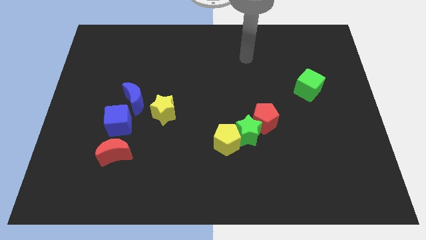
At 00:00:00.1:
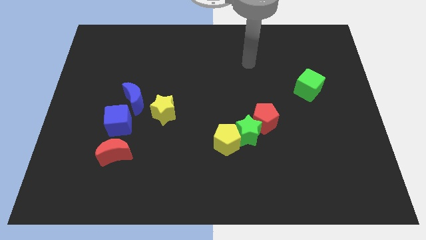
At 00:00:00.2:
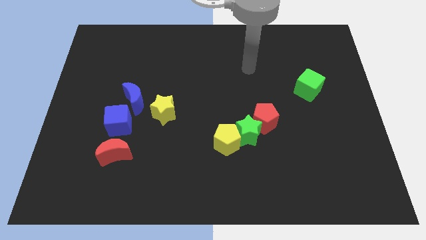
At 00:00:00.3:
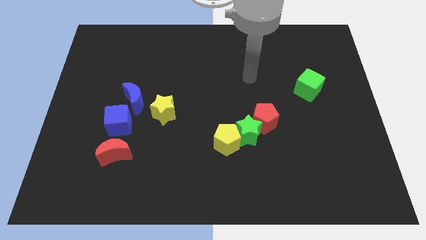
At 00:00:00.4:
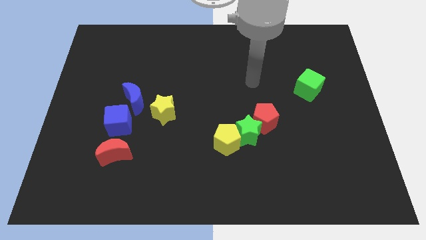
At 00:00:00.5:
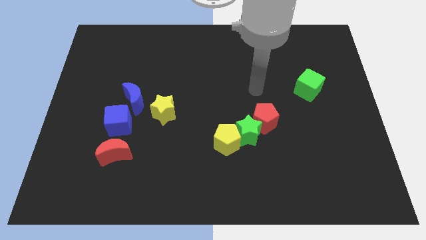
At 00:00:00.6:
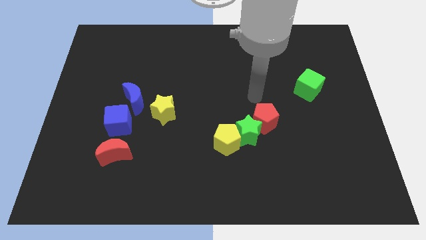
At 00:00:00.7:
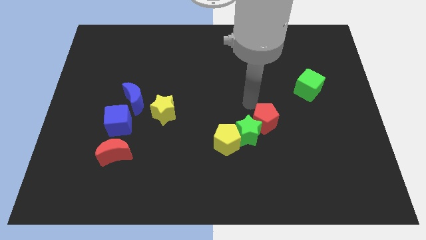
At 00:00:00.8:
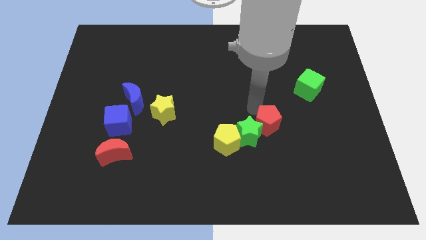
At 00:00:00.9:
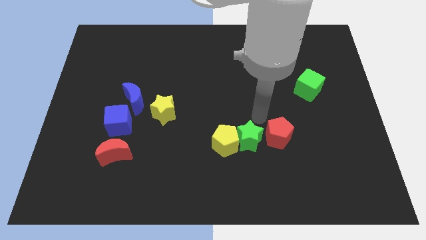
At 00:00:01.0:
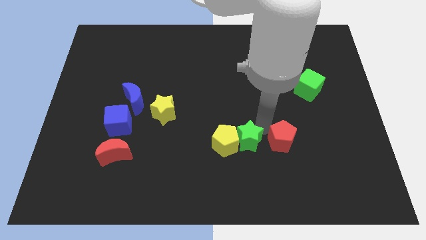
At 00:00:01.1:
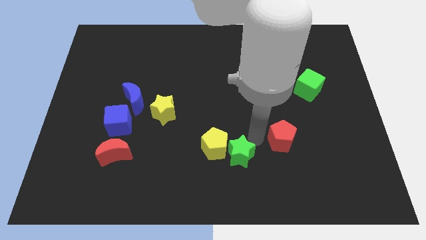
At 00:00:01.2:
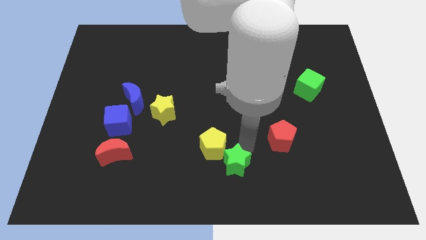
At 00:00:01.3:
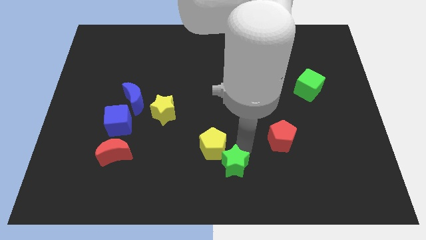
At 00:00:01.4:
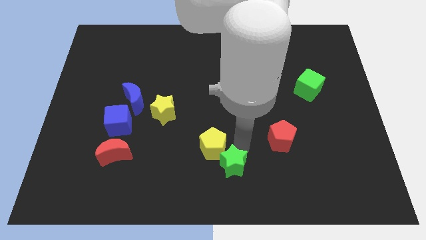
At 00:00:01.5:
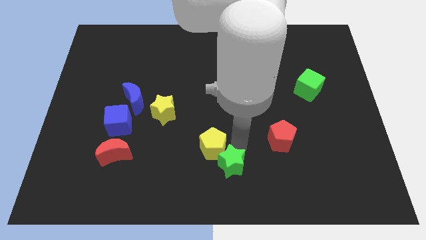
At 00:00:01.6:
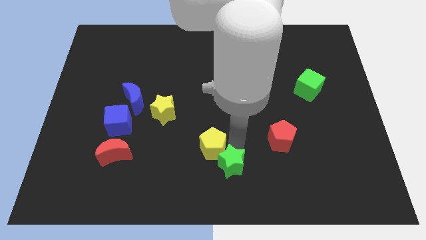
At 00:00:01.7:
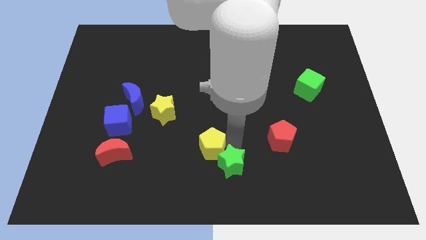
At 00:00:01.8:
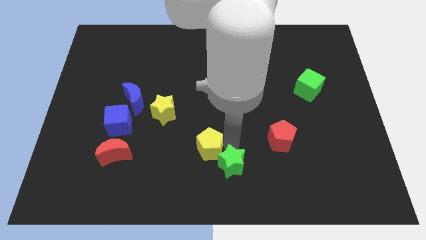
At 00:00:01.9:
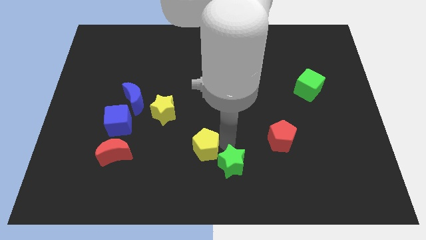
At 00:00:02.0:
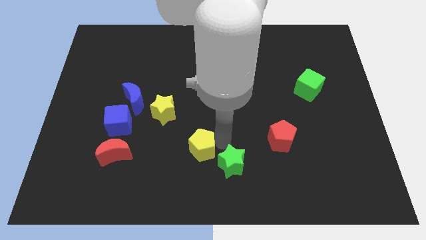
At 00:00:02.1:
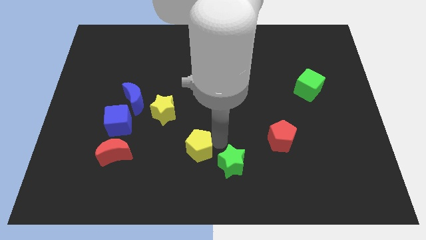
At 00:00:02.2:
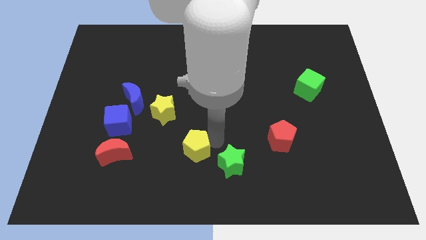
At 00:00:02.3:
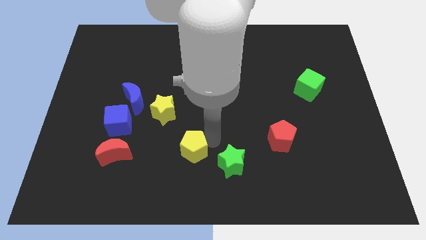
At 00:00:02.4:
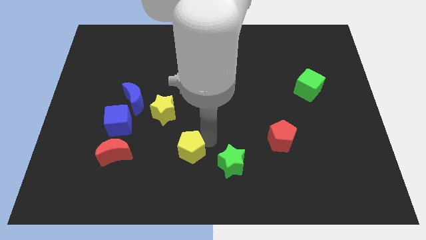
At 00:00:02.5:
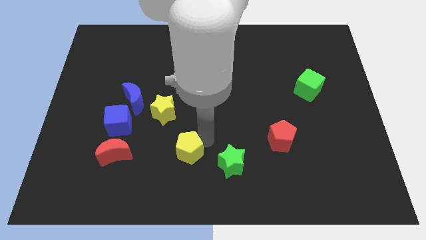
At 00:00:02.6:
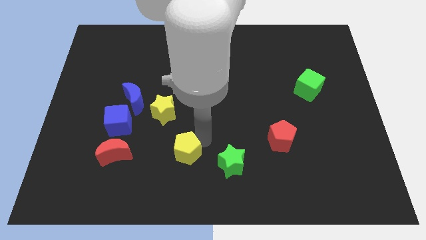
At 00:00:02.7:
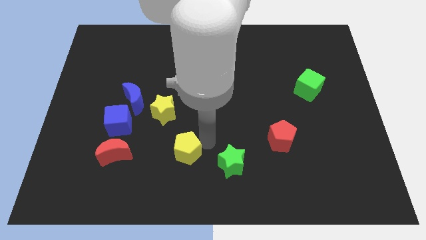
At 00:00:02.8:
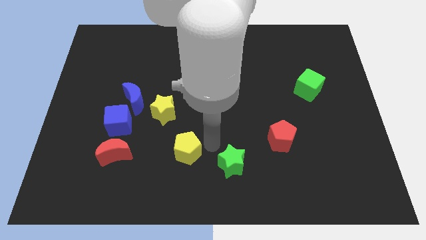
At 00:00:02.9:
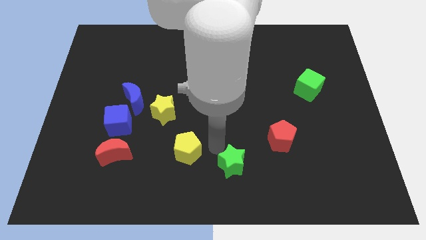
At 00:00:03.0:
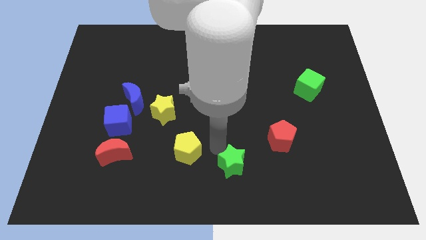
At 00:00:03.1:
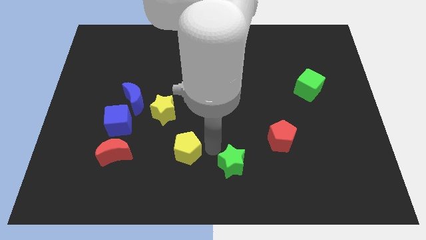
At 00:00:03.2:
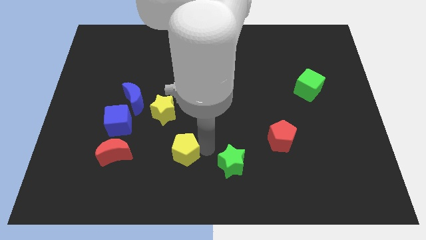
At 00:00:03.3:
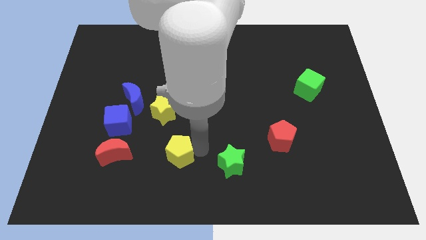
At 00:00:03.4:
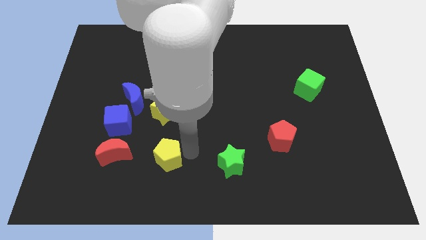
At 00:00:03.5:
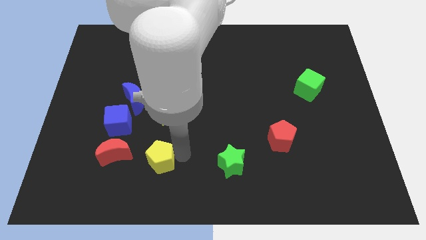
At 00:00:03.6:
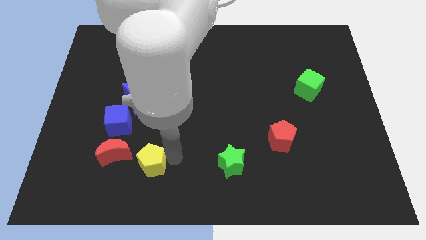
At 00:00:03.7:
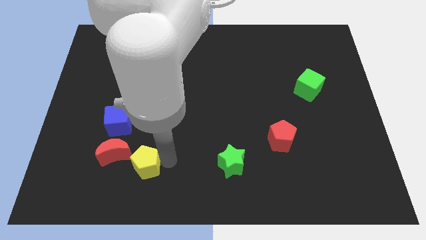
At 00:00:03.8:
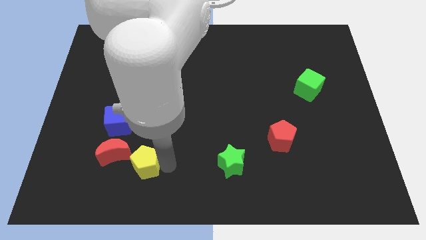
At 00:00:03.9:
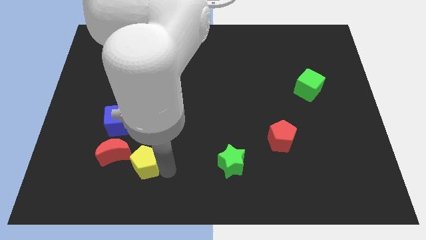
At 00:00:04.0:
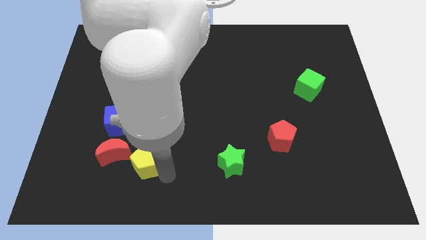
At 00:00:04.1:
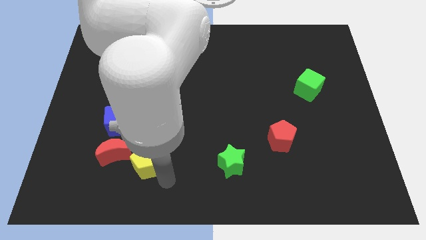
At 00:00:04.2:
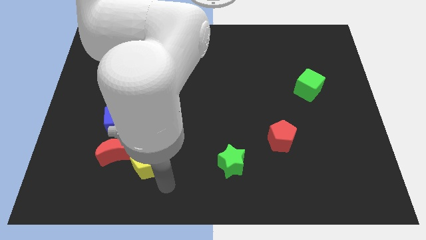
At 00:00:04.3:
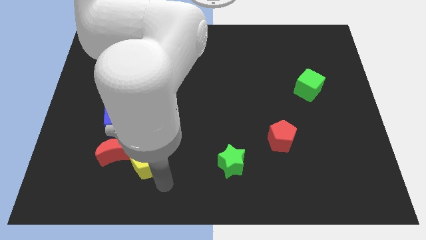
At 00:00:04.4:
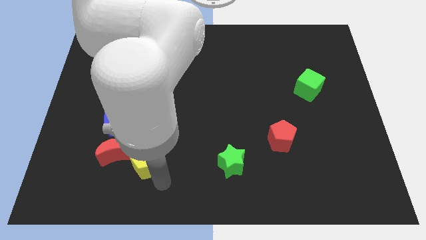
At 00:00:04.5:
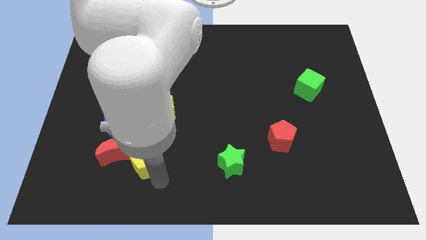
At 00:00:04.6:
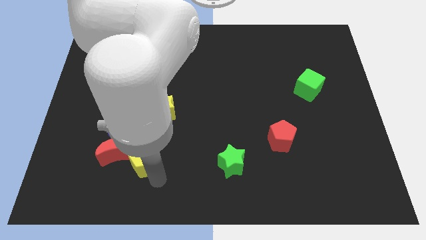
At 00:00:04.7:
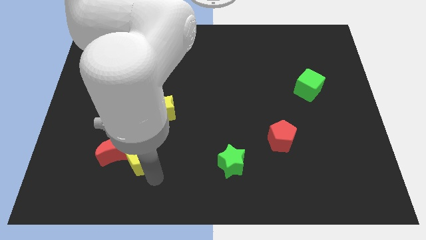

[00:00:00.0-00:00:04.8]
push the yellow pentagon to the red moon

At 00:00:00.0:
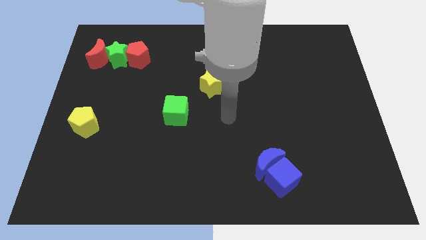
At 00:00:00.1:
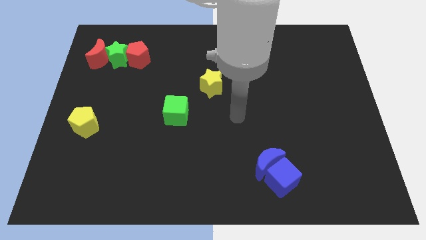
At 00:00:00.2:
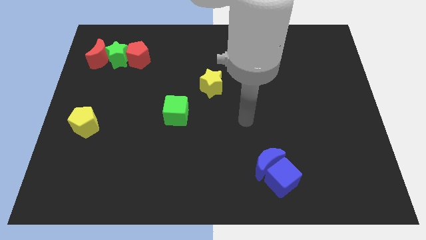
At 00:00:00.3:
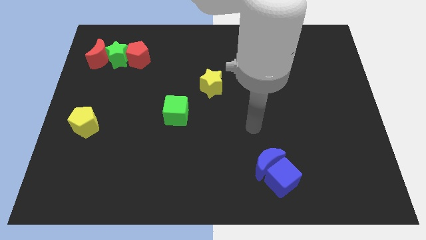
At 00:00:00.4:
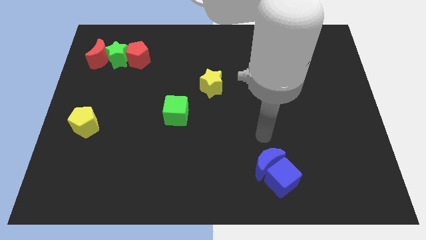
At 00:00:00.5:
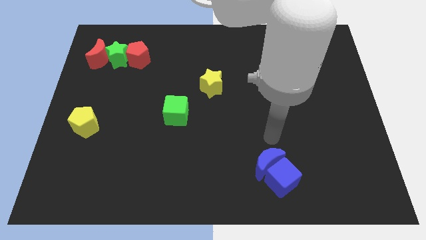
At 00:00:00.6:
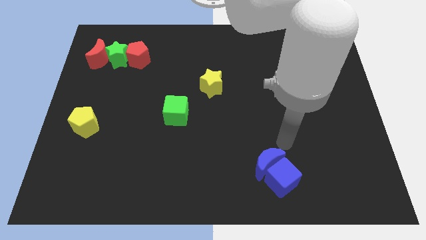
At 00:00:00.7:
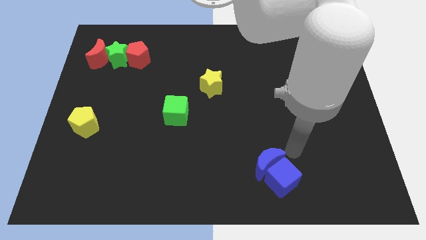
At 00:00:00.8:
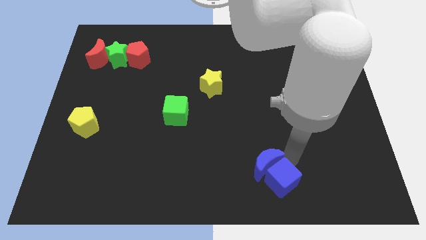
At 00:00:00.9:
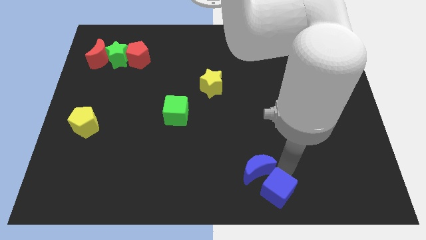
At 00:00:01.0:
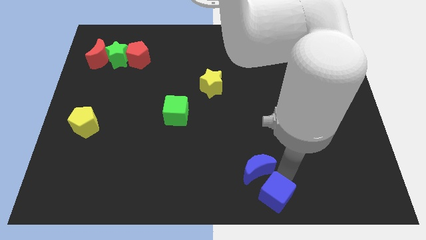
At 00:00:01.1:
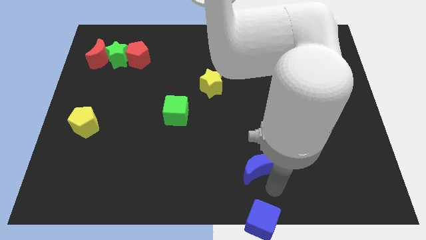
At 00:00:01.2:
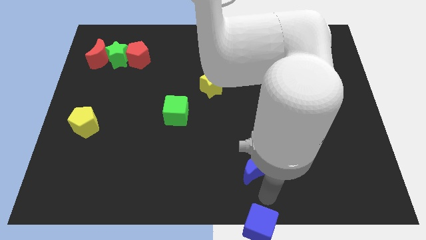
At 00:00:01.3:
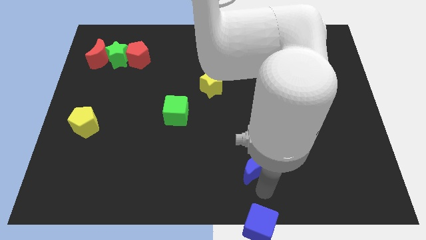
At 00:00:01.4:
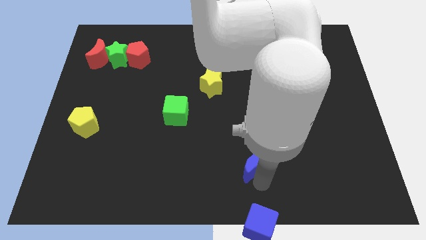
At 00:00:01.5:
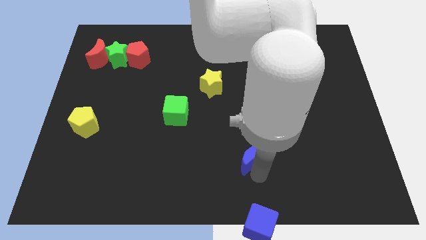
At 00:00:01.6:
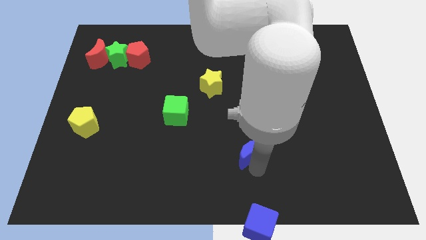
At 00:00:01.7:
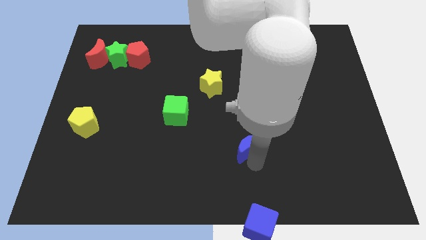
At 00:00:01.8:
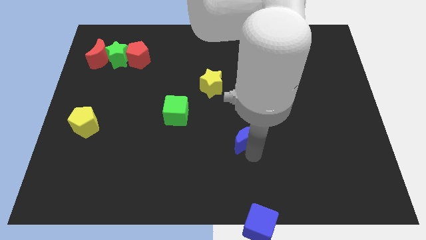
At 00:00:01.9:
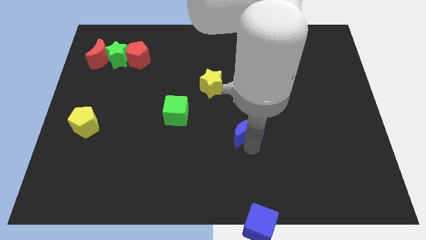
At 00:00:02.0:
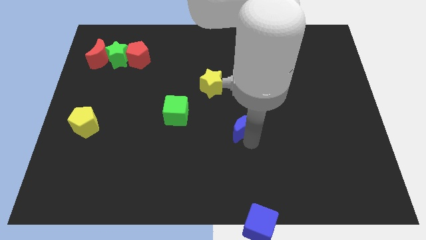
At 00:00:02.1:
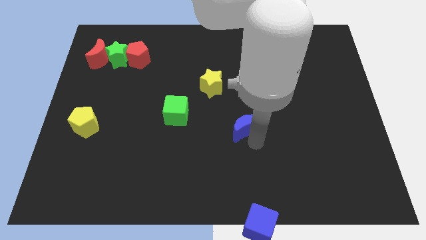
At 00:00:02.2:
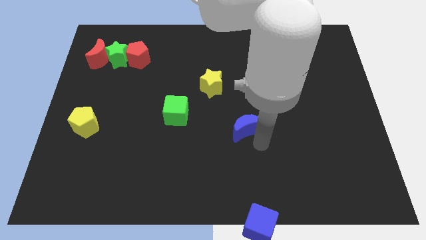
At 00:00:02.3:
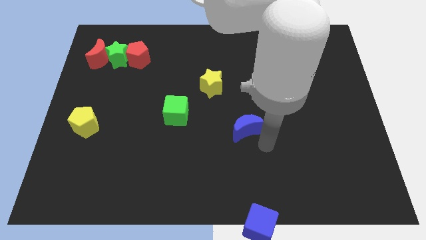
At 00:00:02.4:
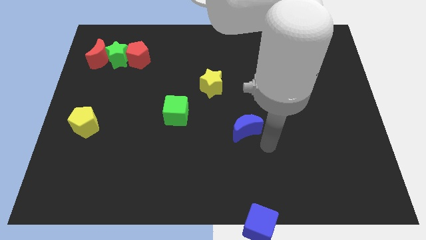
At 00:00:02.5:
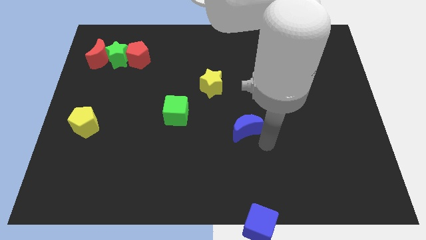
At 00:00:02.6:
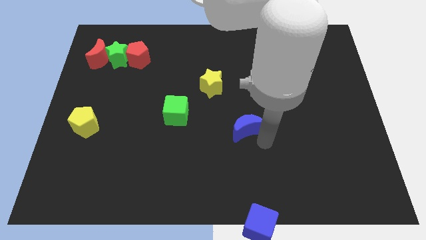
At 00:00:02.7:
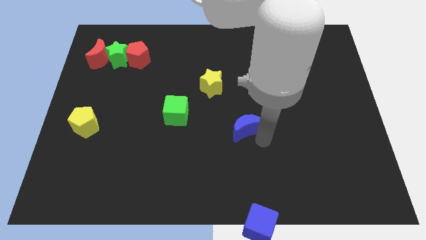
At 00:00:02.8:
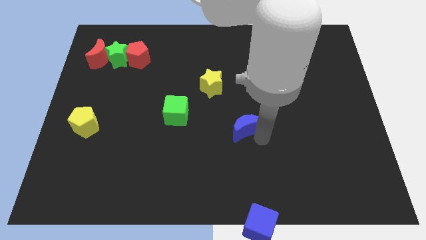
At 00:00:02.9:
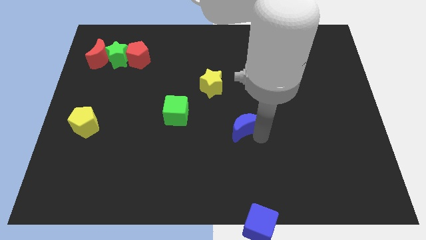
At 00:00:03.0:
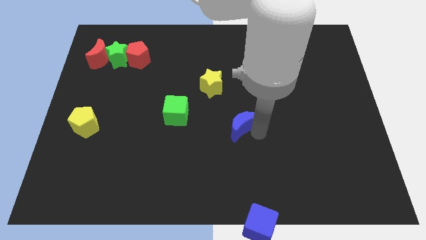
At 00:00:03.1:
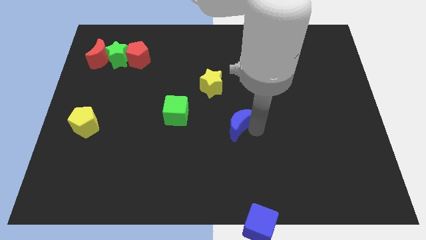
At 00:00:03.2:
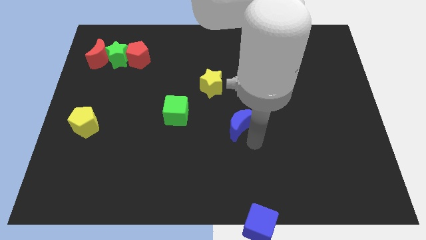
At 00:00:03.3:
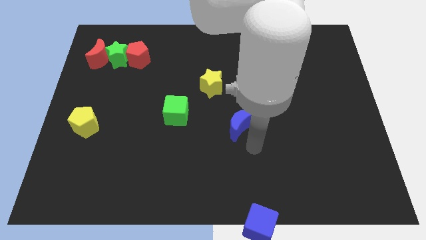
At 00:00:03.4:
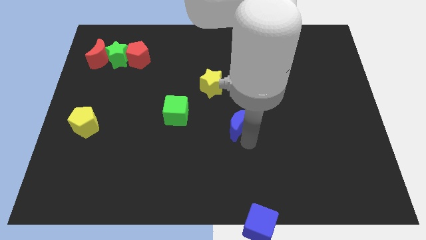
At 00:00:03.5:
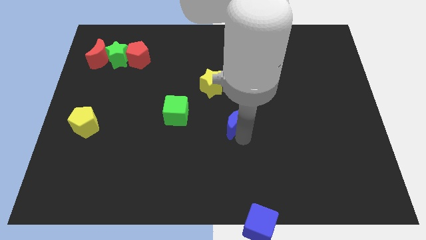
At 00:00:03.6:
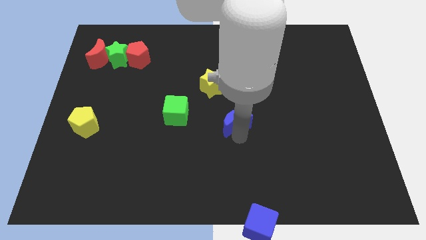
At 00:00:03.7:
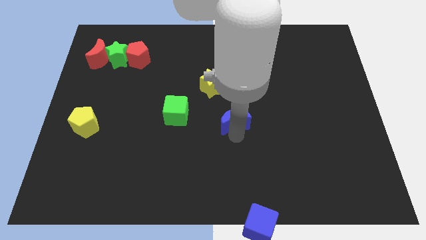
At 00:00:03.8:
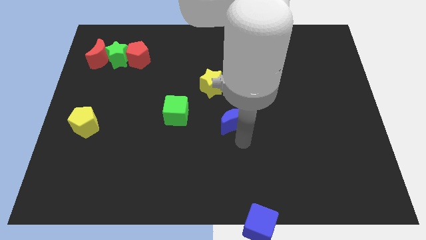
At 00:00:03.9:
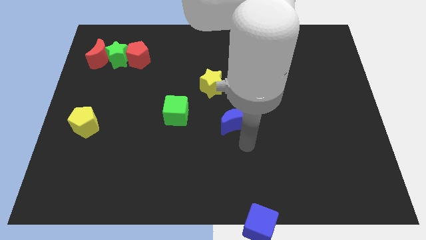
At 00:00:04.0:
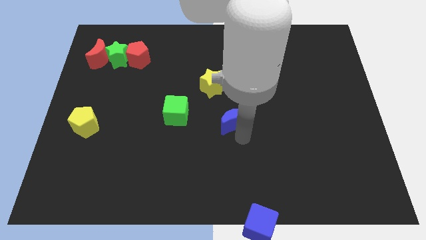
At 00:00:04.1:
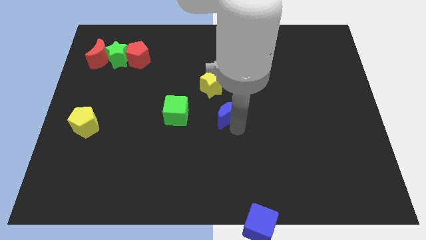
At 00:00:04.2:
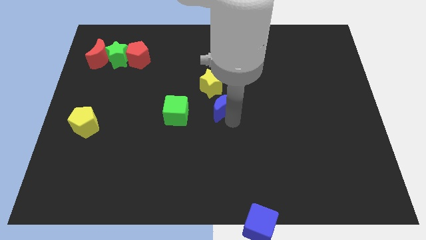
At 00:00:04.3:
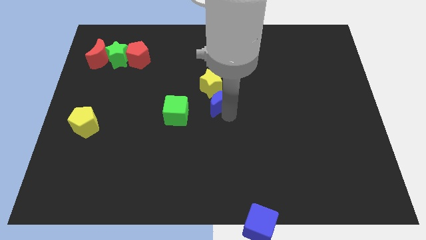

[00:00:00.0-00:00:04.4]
put the blue moon close to the yellow star
